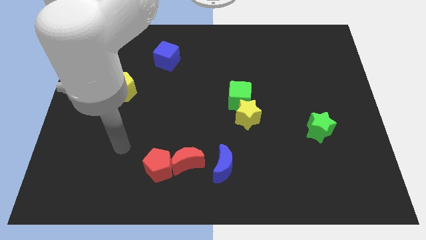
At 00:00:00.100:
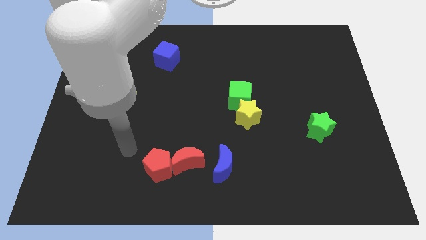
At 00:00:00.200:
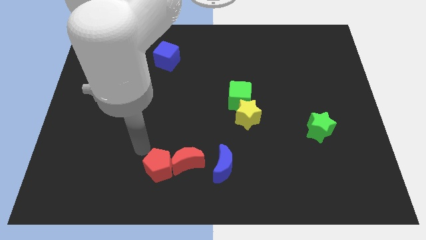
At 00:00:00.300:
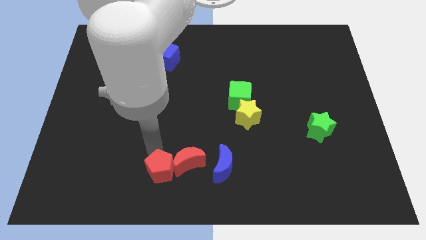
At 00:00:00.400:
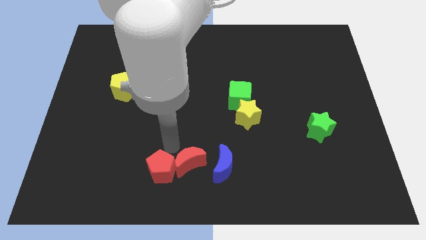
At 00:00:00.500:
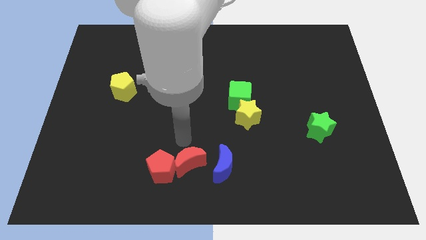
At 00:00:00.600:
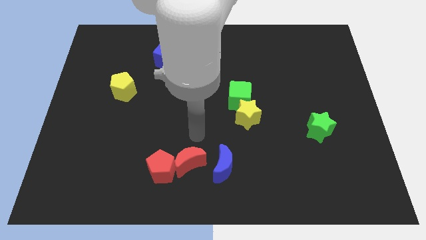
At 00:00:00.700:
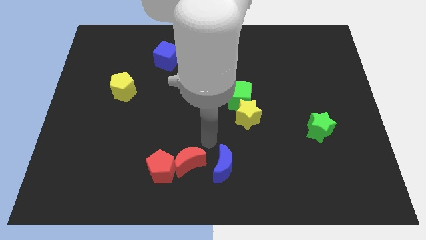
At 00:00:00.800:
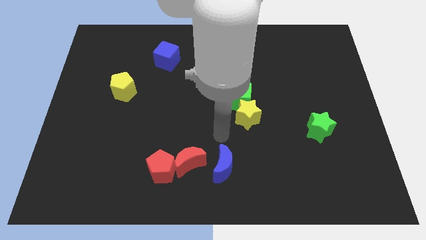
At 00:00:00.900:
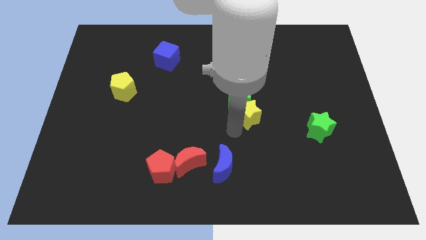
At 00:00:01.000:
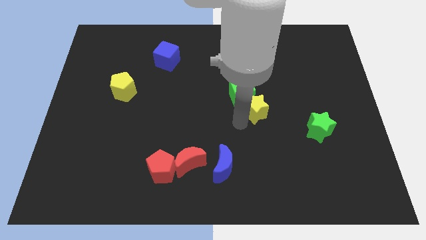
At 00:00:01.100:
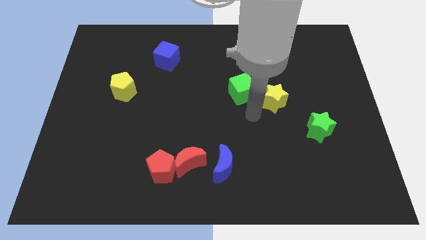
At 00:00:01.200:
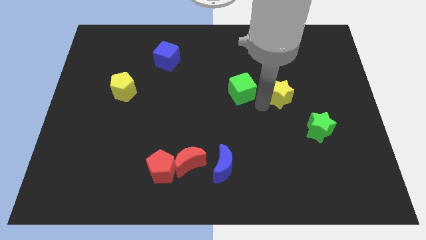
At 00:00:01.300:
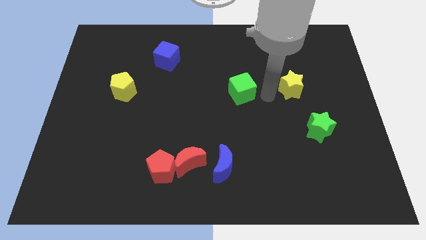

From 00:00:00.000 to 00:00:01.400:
separate the green cube from the yellow star

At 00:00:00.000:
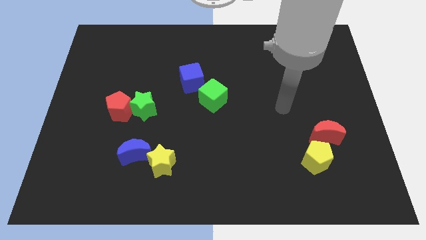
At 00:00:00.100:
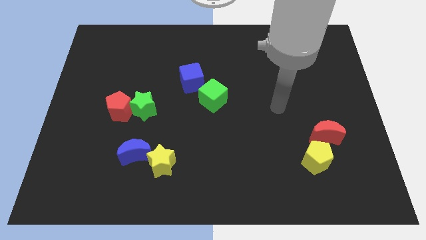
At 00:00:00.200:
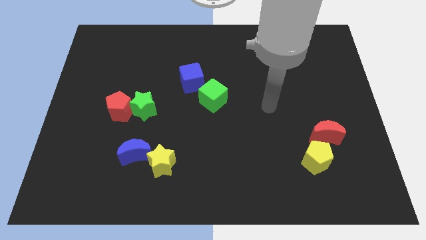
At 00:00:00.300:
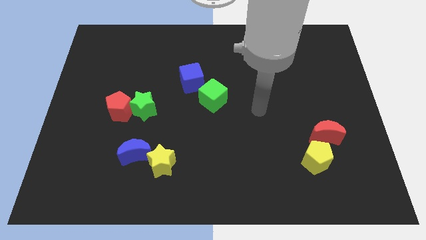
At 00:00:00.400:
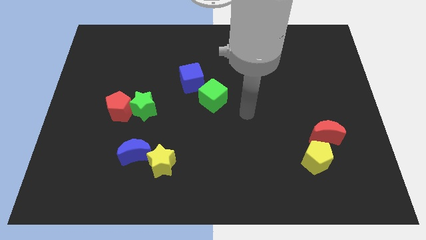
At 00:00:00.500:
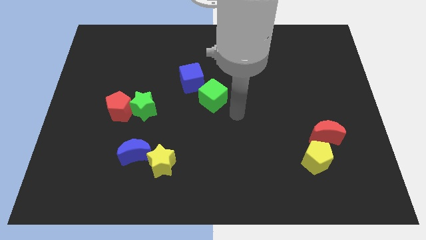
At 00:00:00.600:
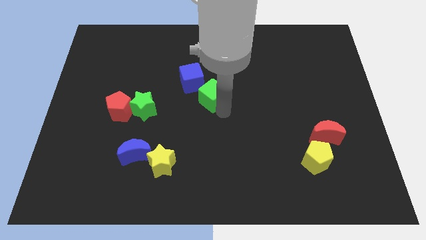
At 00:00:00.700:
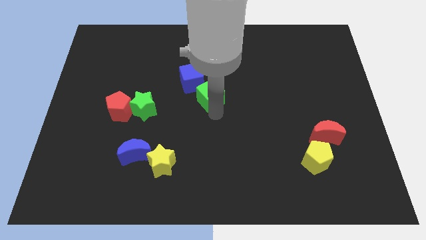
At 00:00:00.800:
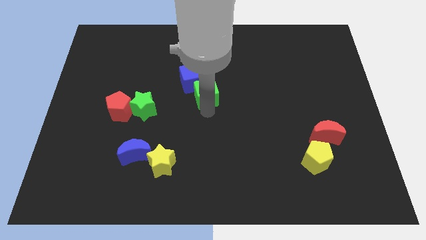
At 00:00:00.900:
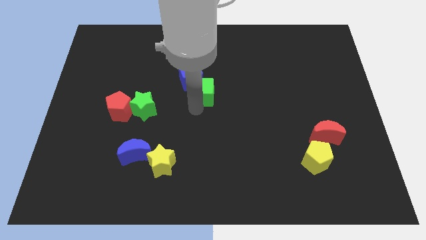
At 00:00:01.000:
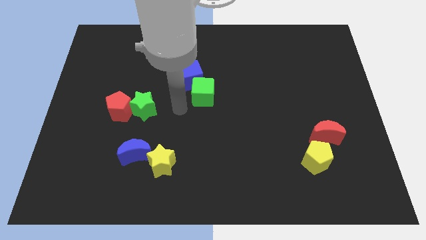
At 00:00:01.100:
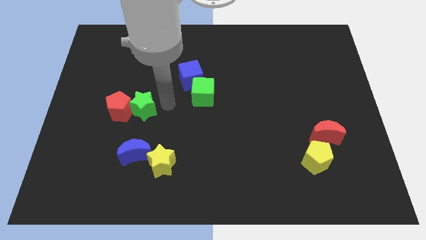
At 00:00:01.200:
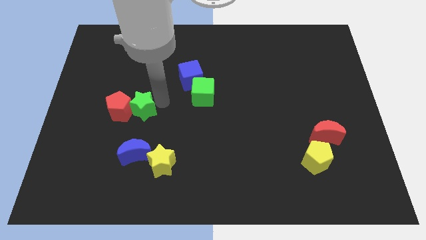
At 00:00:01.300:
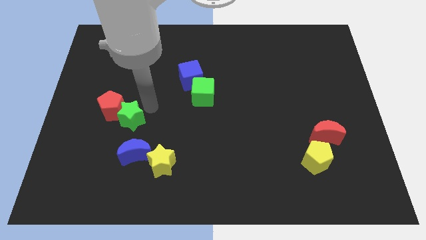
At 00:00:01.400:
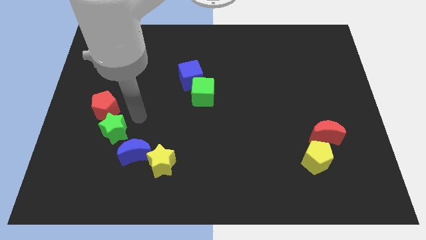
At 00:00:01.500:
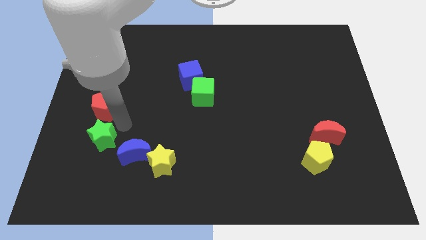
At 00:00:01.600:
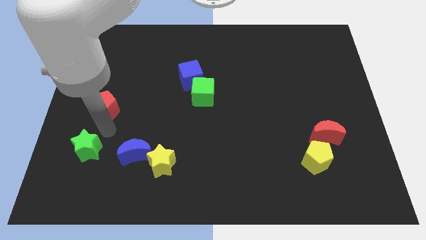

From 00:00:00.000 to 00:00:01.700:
move the red pentagon away from the green star

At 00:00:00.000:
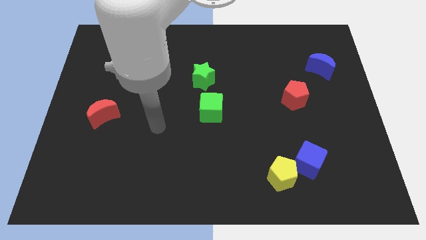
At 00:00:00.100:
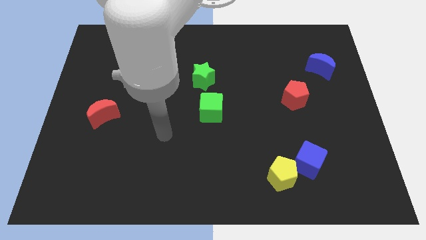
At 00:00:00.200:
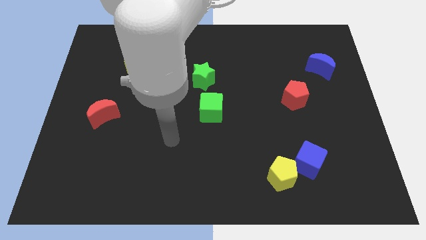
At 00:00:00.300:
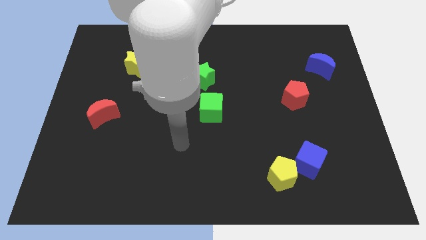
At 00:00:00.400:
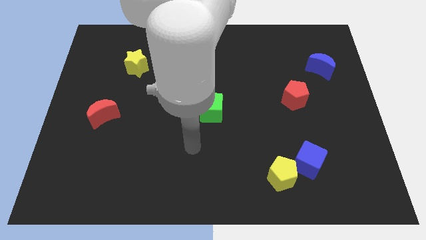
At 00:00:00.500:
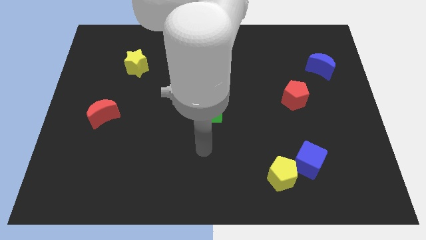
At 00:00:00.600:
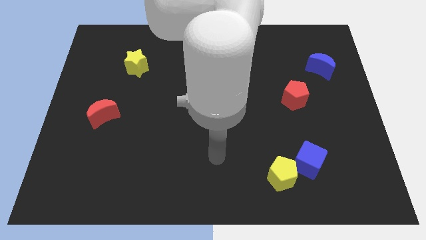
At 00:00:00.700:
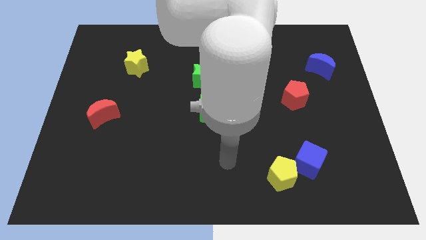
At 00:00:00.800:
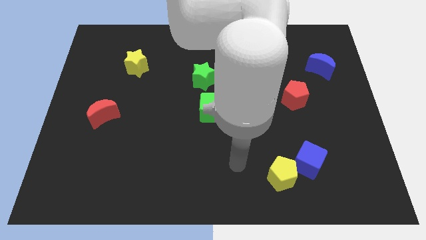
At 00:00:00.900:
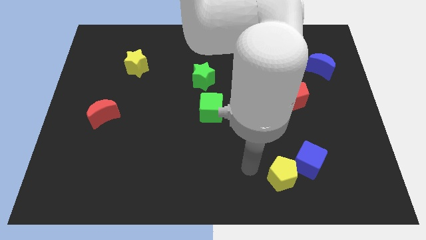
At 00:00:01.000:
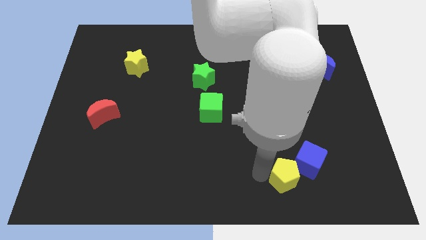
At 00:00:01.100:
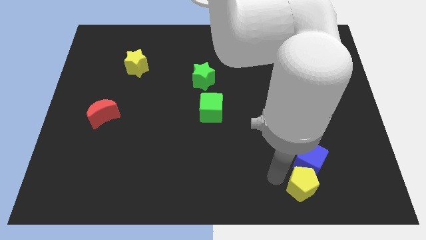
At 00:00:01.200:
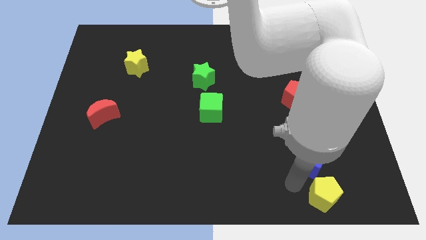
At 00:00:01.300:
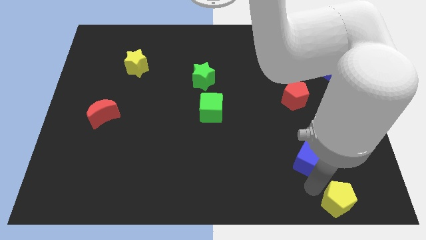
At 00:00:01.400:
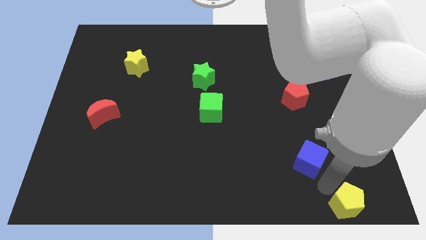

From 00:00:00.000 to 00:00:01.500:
move the blue cube away from the yellow pentagon

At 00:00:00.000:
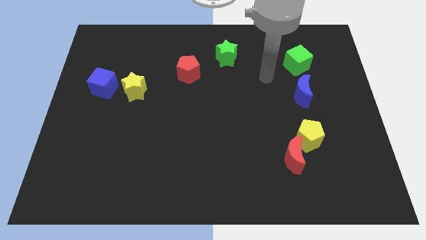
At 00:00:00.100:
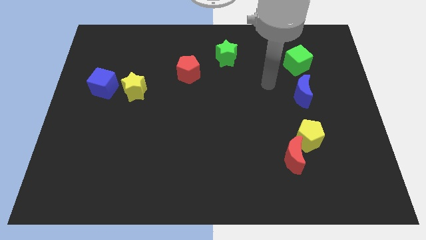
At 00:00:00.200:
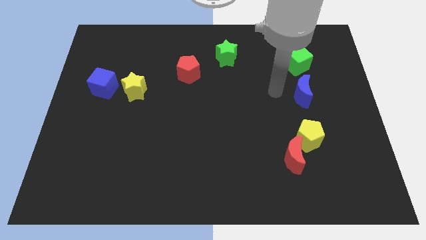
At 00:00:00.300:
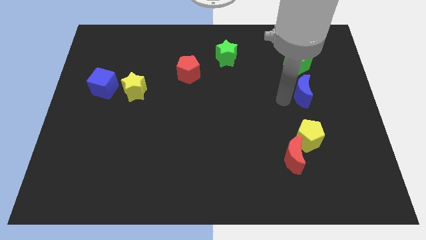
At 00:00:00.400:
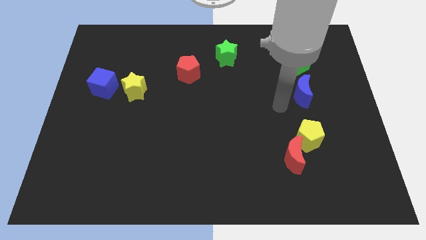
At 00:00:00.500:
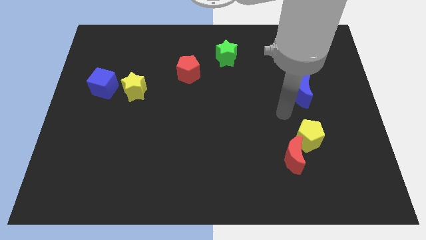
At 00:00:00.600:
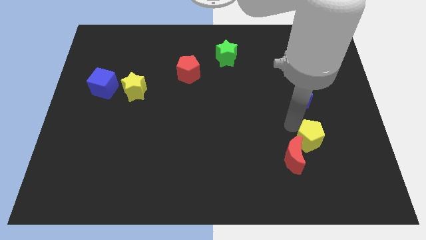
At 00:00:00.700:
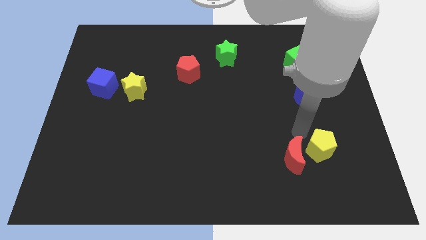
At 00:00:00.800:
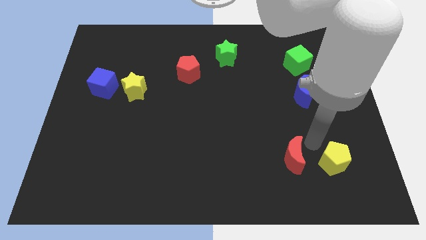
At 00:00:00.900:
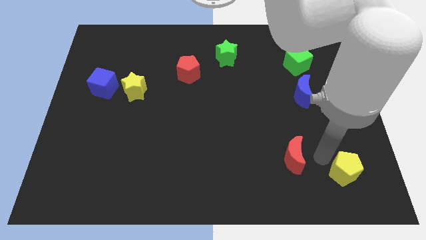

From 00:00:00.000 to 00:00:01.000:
pull the red moon apart from the yellow pentagon

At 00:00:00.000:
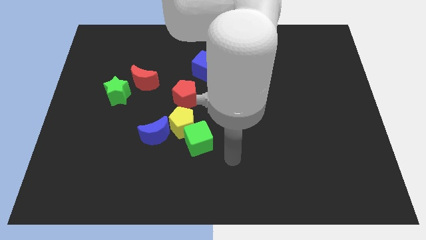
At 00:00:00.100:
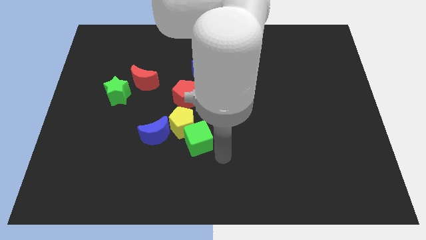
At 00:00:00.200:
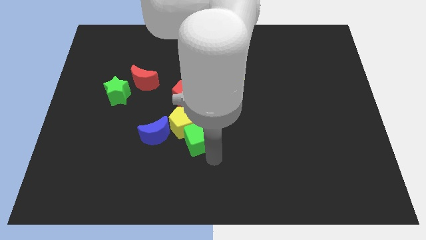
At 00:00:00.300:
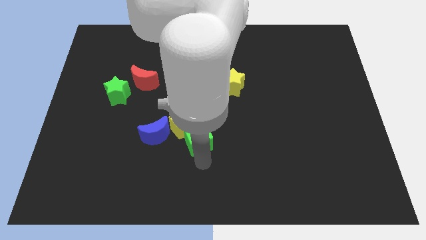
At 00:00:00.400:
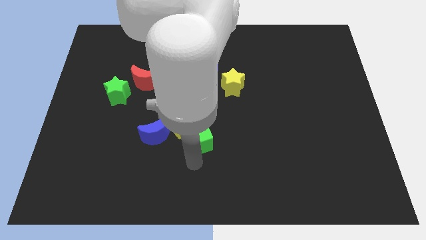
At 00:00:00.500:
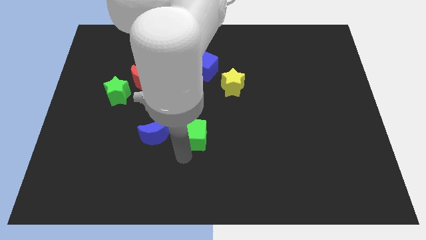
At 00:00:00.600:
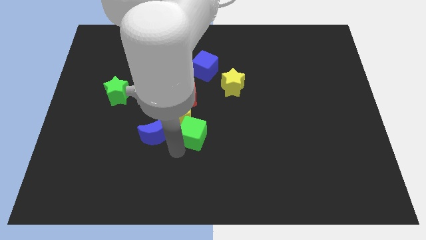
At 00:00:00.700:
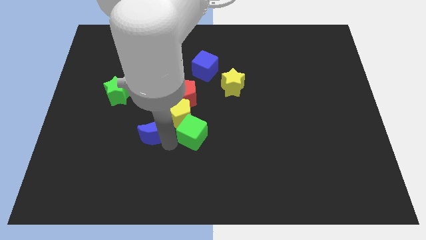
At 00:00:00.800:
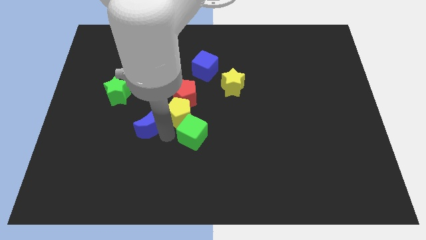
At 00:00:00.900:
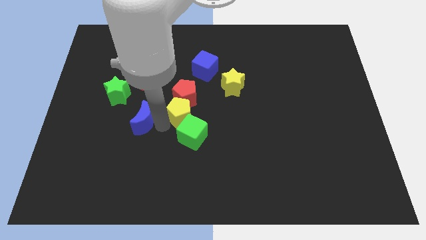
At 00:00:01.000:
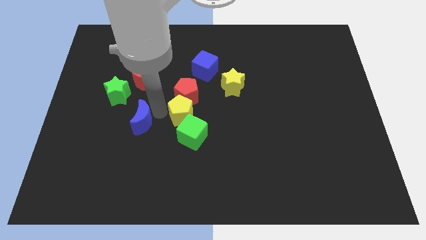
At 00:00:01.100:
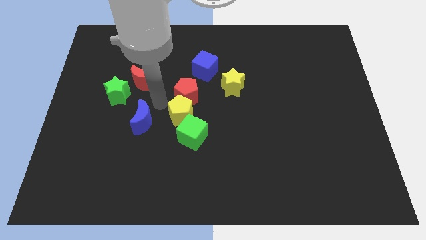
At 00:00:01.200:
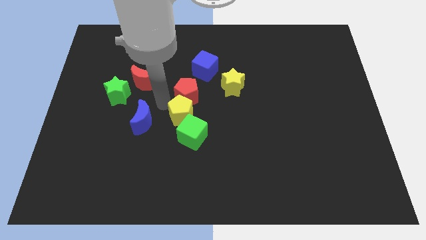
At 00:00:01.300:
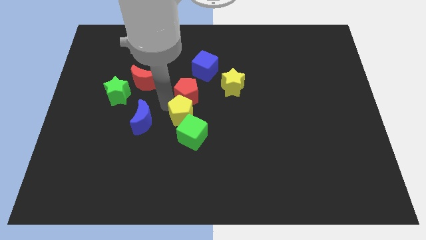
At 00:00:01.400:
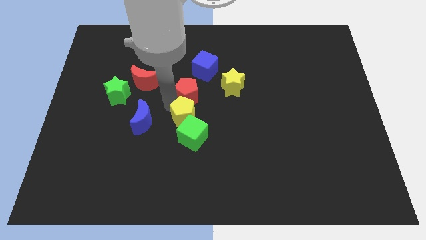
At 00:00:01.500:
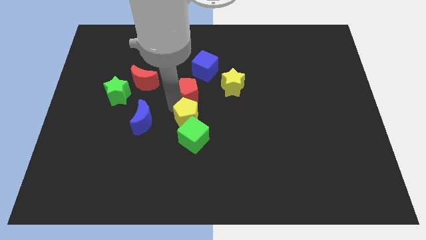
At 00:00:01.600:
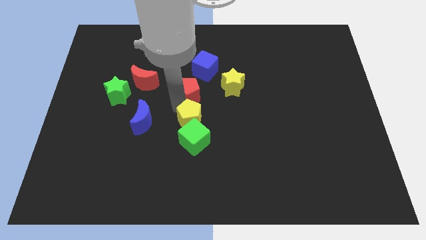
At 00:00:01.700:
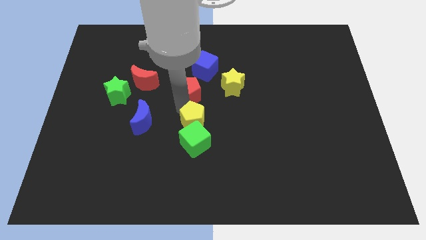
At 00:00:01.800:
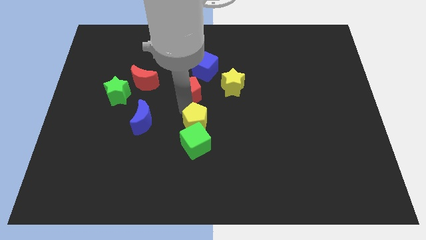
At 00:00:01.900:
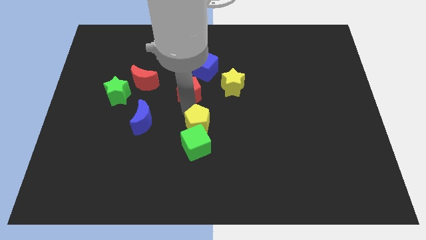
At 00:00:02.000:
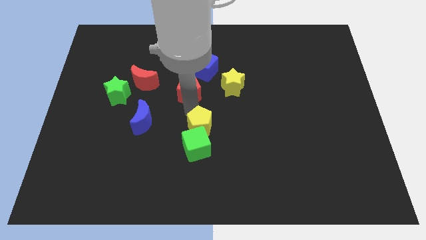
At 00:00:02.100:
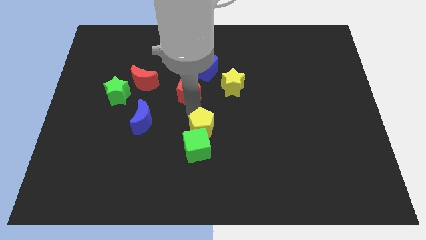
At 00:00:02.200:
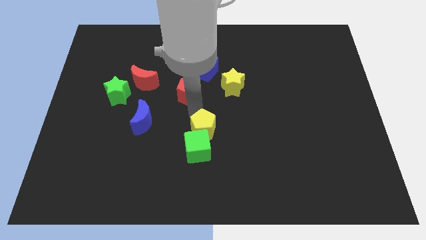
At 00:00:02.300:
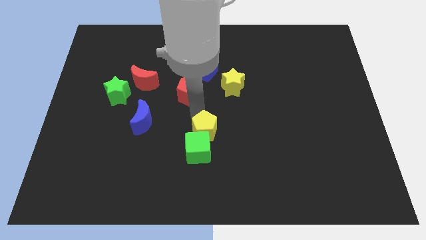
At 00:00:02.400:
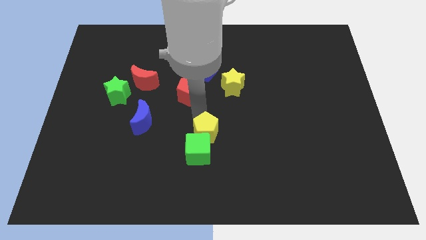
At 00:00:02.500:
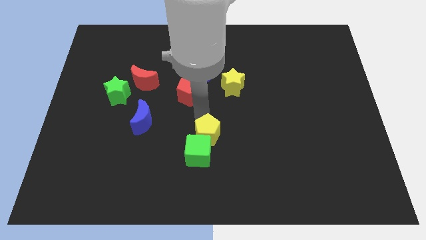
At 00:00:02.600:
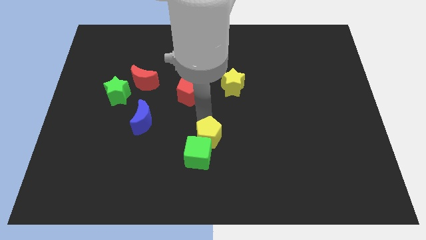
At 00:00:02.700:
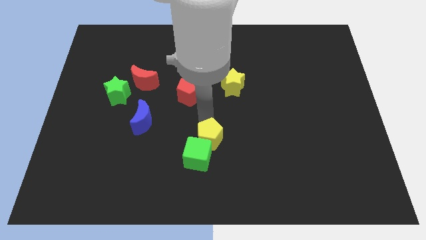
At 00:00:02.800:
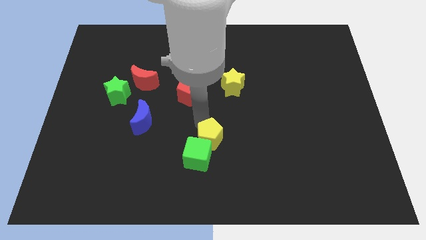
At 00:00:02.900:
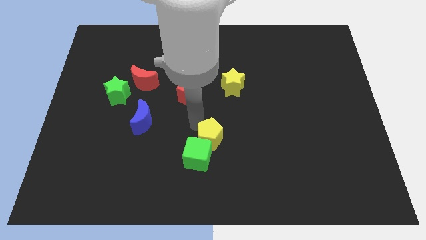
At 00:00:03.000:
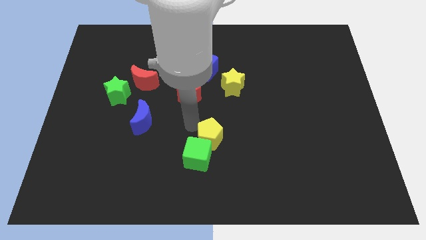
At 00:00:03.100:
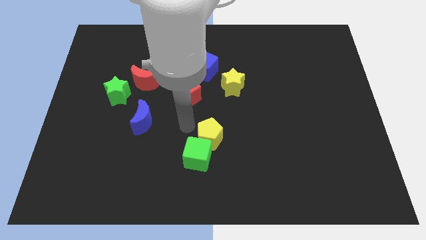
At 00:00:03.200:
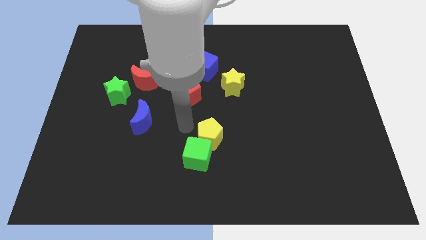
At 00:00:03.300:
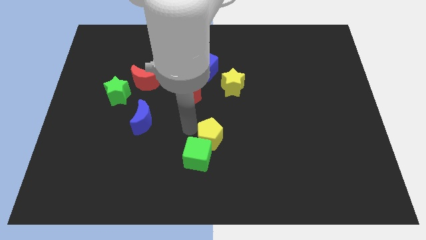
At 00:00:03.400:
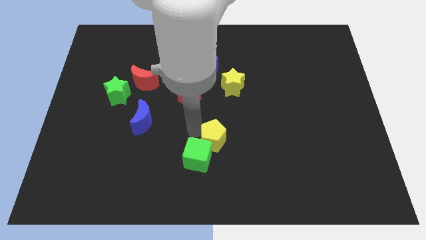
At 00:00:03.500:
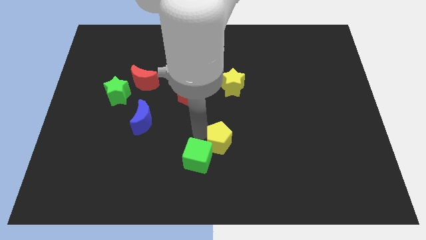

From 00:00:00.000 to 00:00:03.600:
separate the yellow pentagon from the green cube, blue moon, and red pentagon
